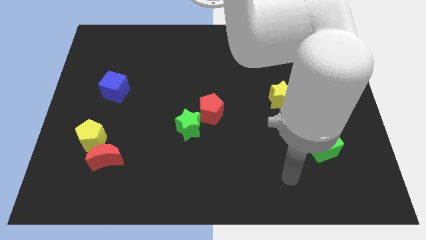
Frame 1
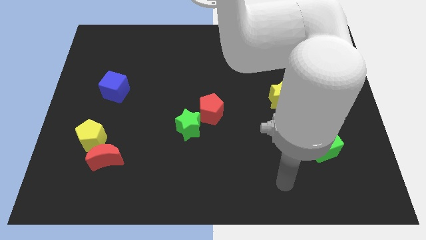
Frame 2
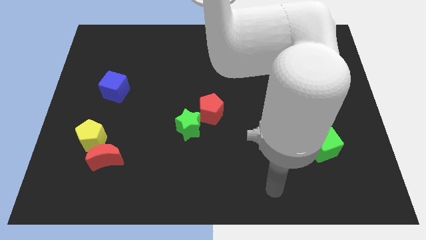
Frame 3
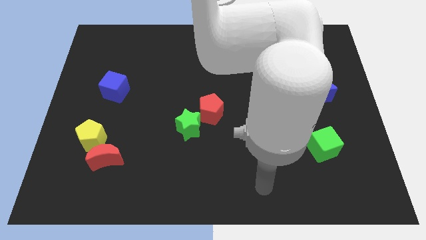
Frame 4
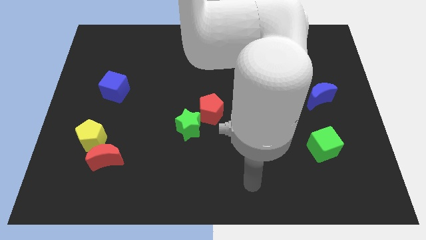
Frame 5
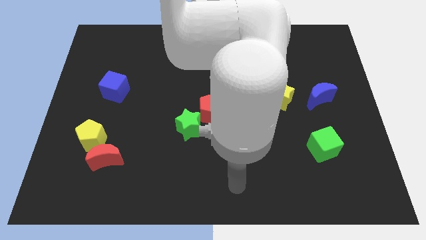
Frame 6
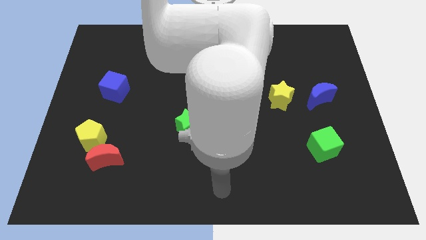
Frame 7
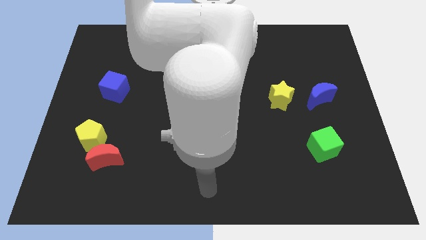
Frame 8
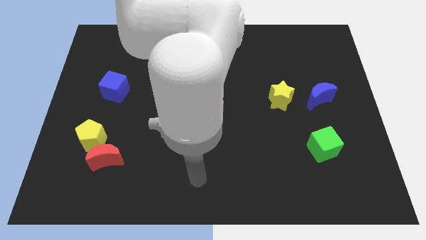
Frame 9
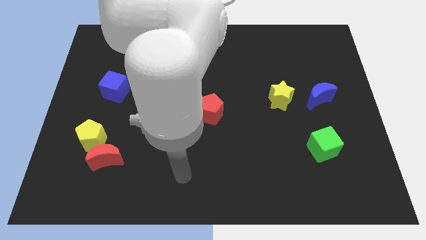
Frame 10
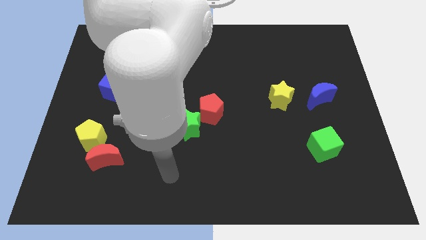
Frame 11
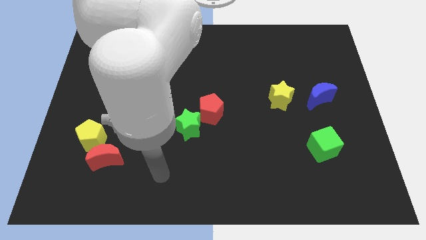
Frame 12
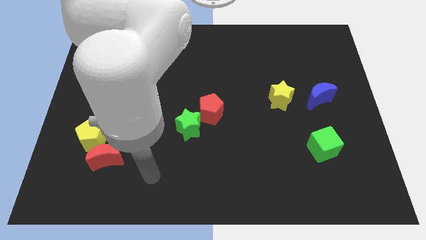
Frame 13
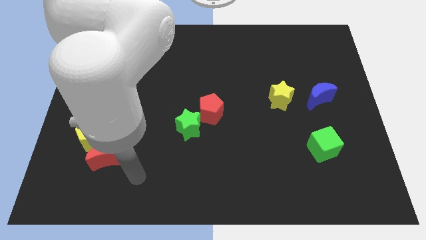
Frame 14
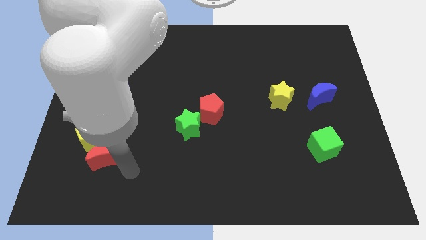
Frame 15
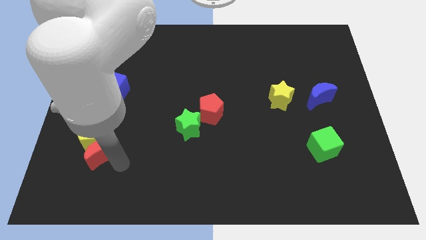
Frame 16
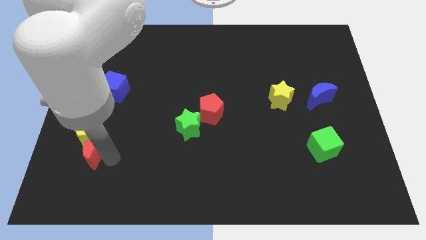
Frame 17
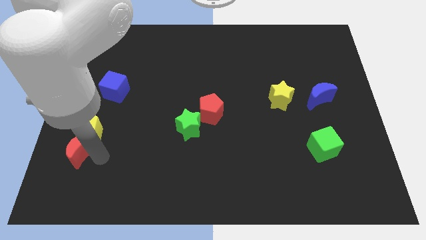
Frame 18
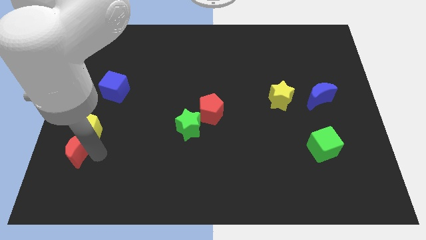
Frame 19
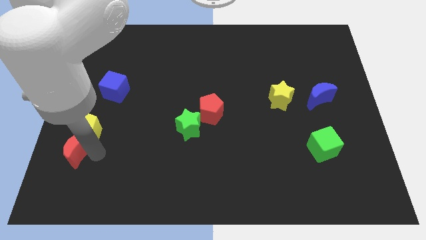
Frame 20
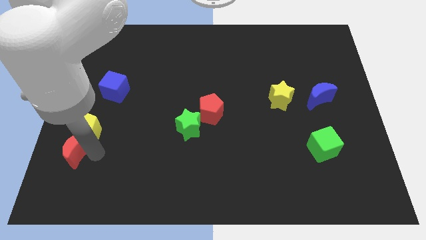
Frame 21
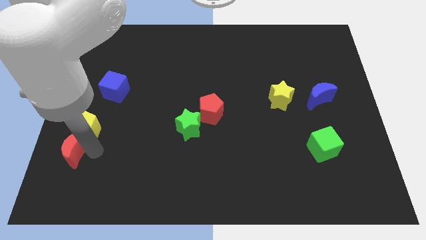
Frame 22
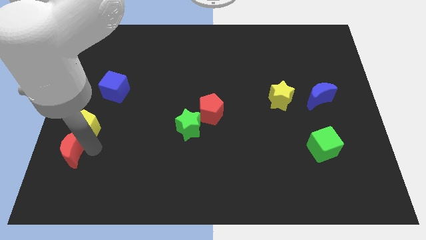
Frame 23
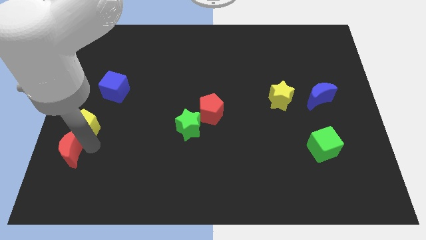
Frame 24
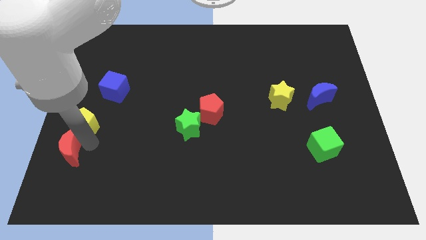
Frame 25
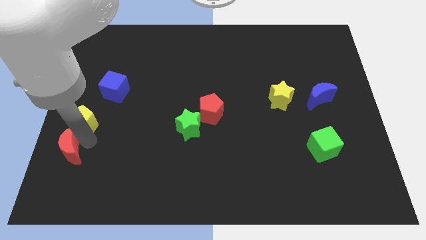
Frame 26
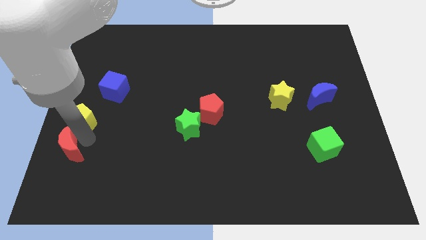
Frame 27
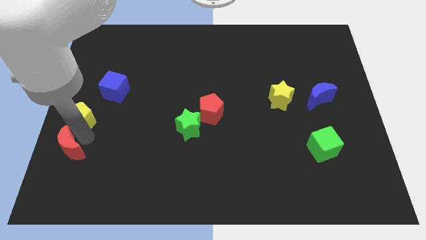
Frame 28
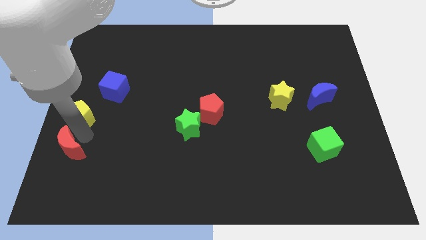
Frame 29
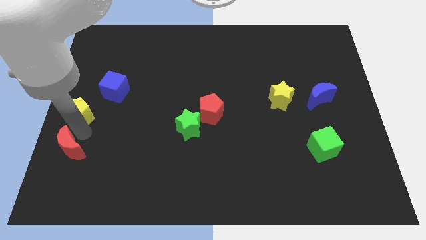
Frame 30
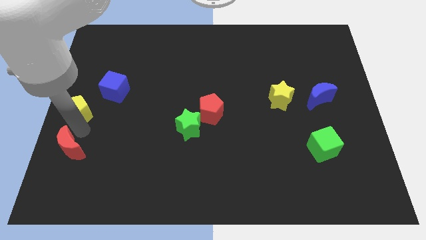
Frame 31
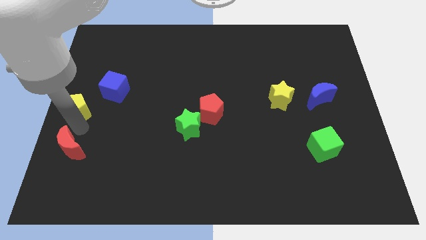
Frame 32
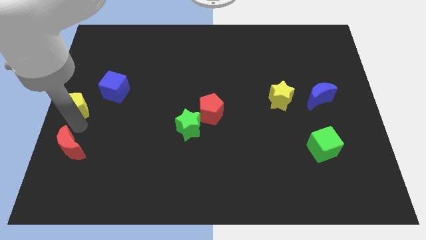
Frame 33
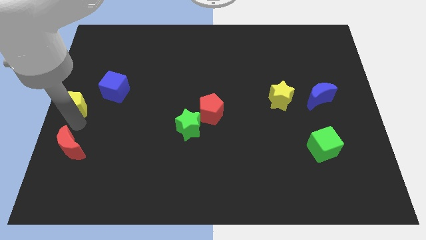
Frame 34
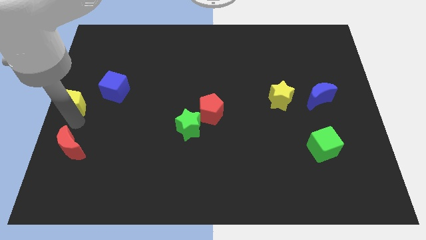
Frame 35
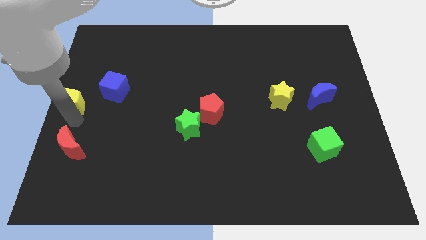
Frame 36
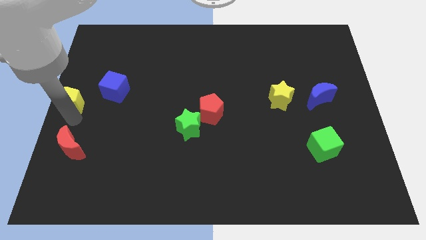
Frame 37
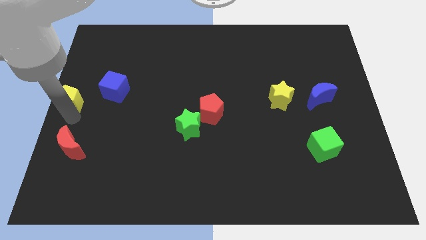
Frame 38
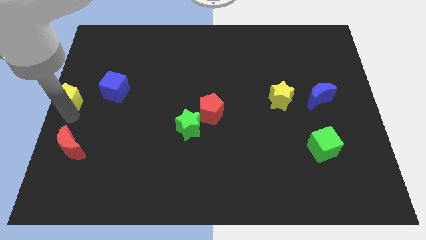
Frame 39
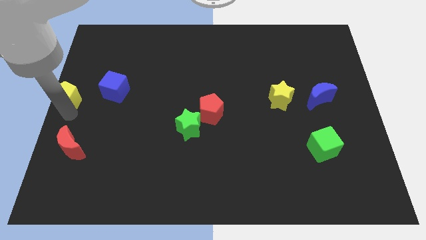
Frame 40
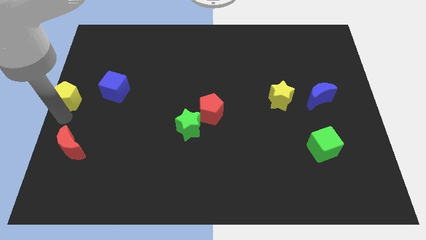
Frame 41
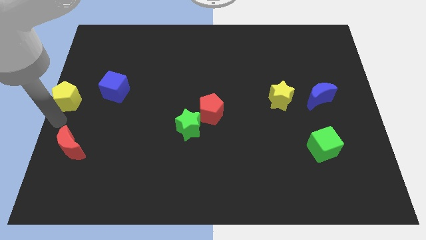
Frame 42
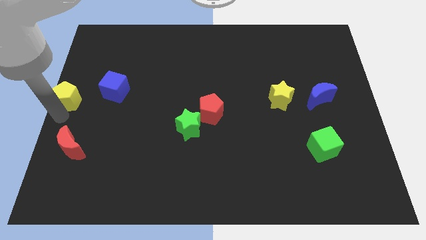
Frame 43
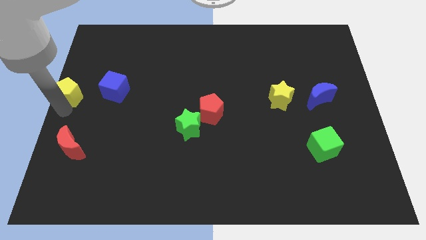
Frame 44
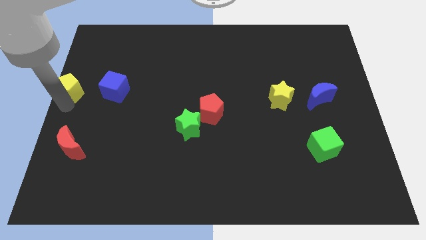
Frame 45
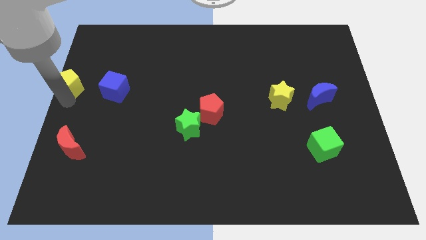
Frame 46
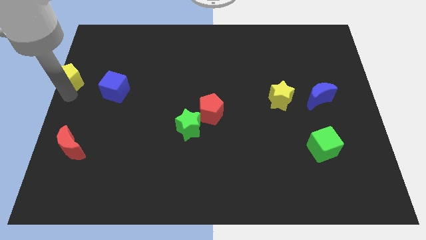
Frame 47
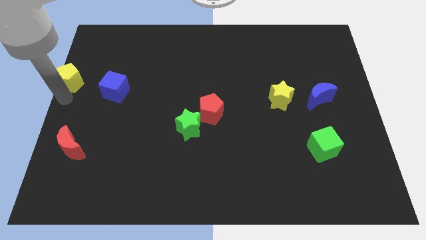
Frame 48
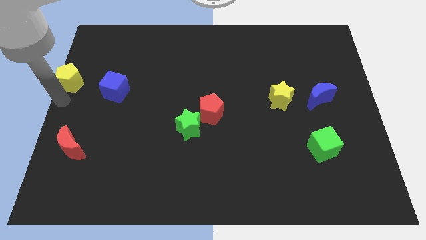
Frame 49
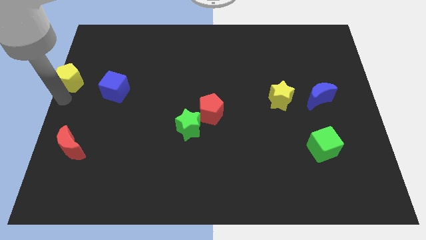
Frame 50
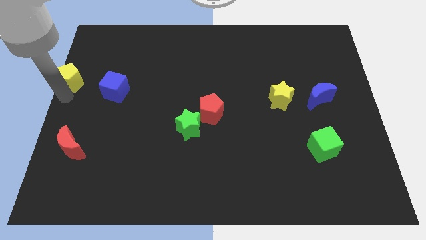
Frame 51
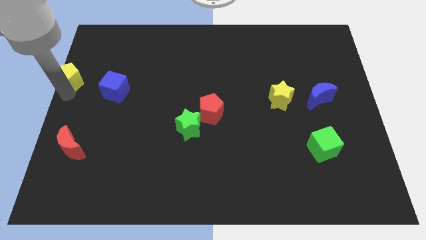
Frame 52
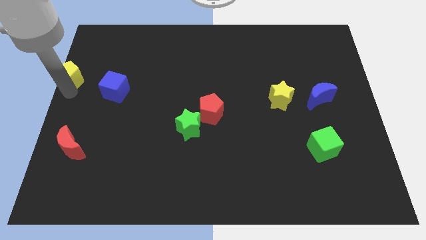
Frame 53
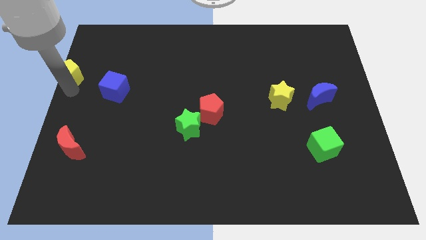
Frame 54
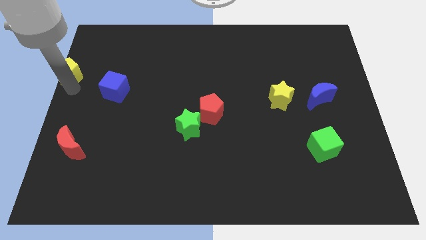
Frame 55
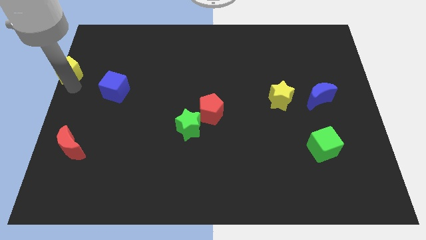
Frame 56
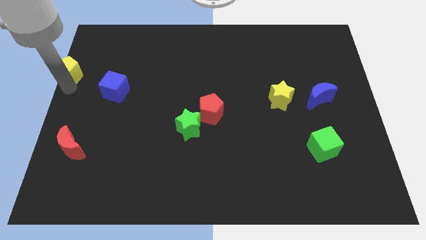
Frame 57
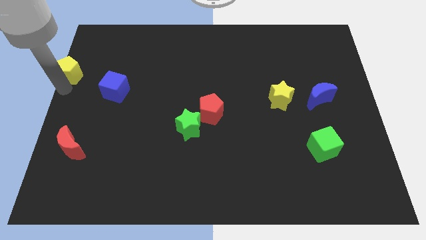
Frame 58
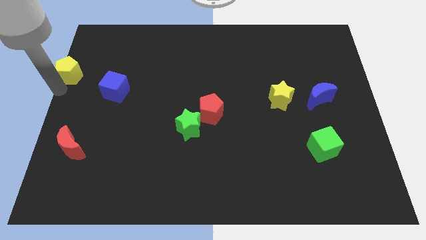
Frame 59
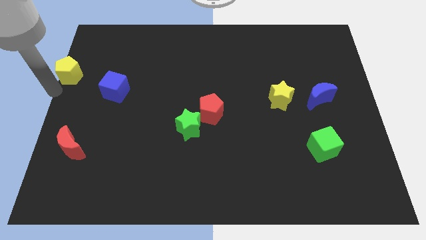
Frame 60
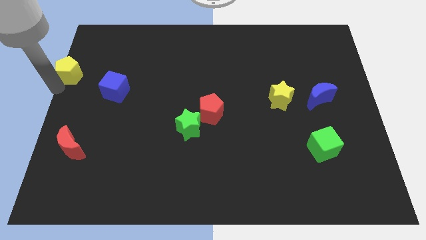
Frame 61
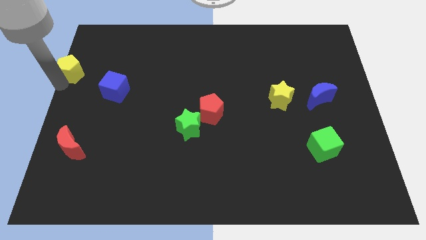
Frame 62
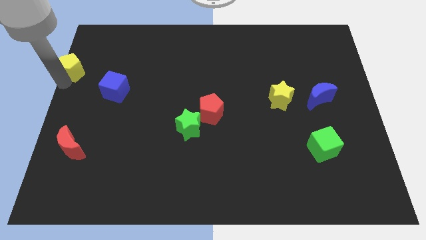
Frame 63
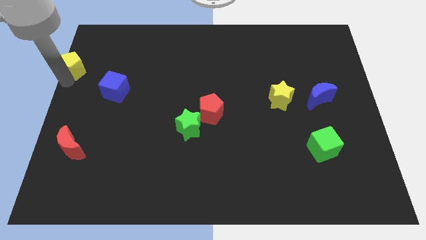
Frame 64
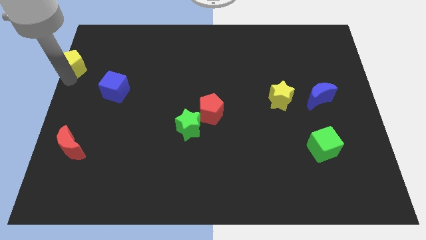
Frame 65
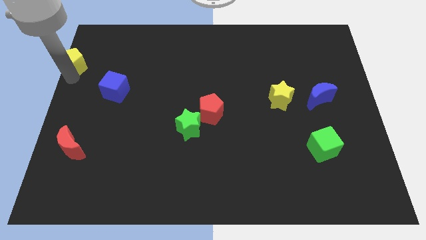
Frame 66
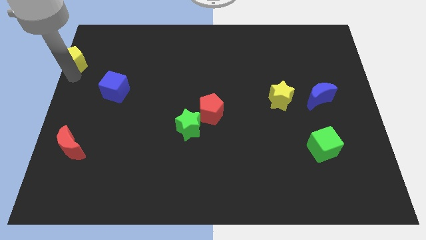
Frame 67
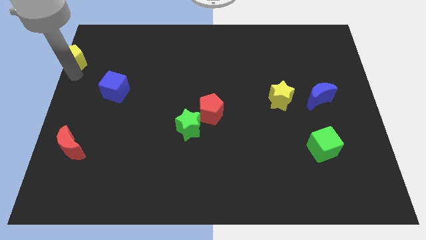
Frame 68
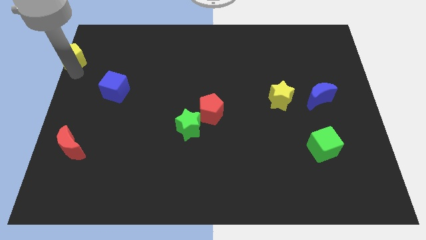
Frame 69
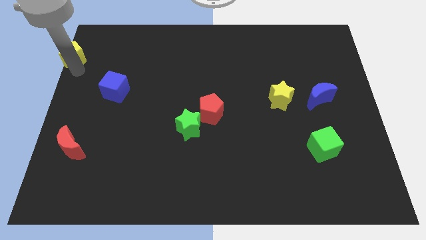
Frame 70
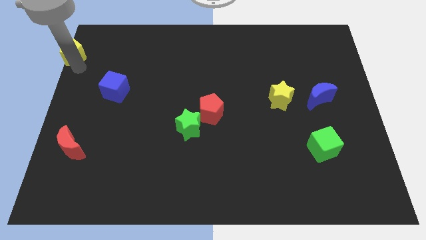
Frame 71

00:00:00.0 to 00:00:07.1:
push the yellow pentagon to the top left
